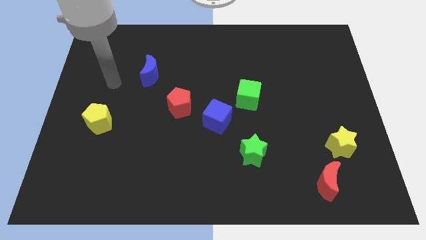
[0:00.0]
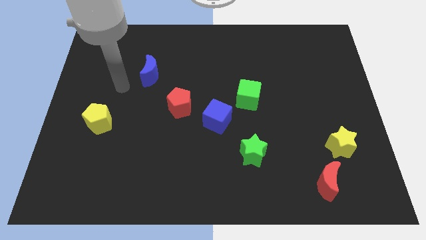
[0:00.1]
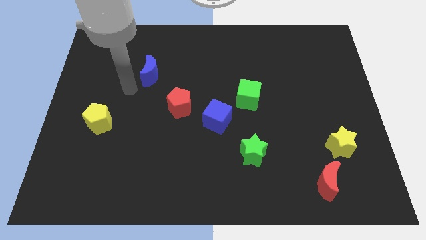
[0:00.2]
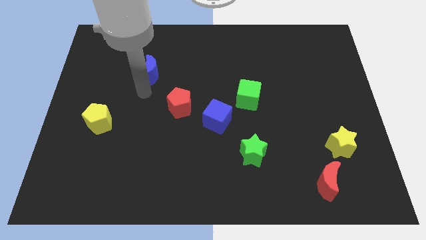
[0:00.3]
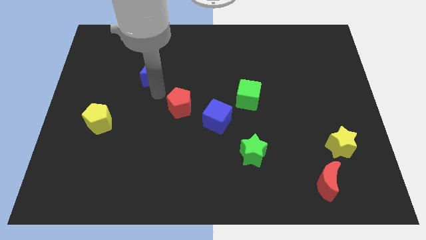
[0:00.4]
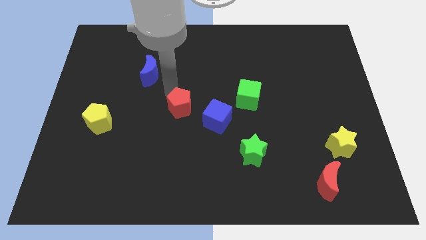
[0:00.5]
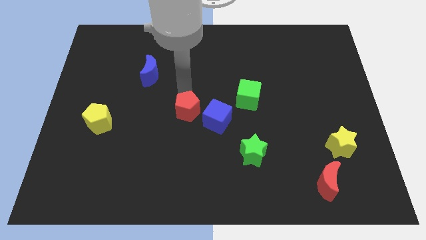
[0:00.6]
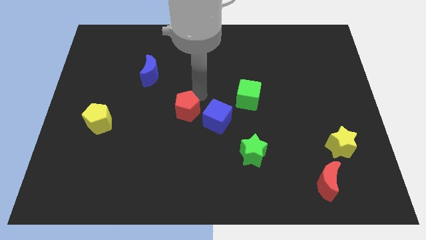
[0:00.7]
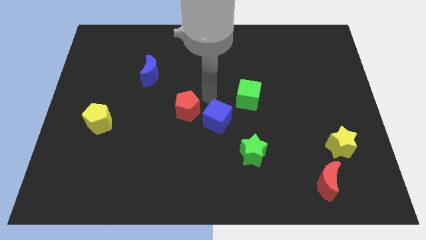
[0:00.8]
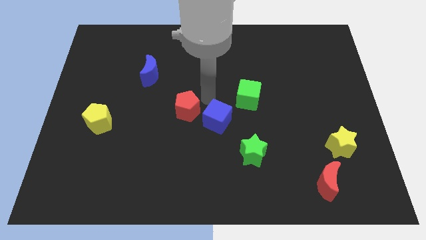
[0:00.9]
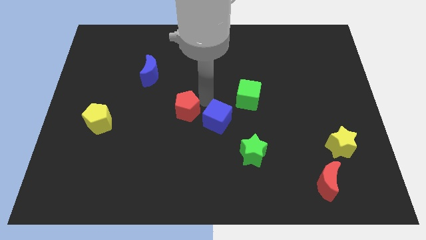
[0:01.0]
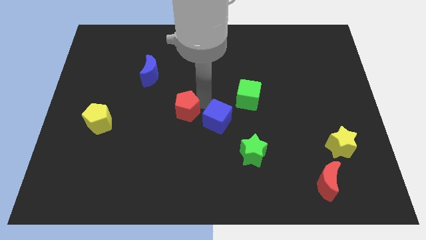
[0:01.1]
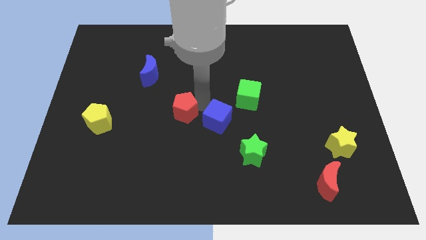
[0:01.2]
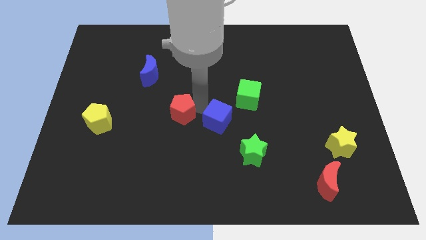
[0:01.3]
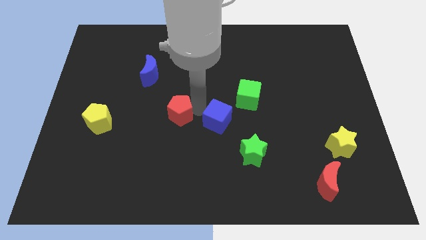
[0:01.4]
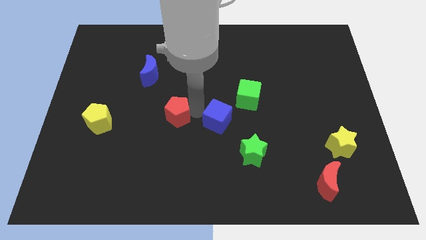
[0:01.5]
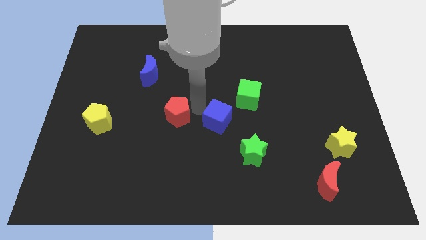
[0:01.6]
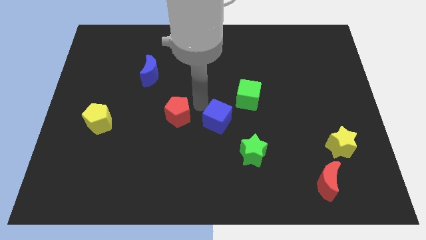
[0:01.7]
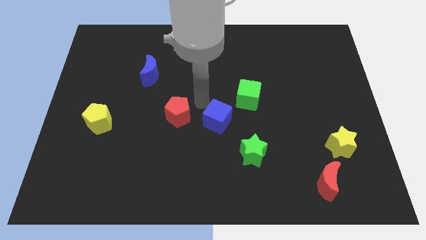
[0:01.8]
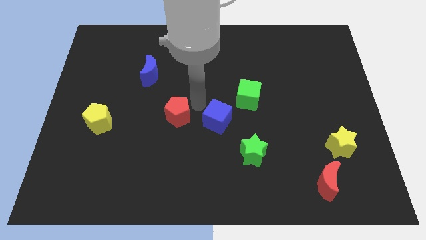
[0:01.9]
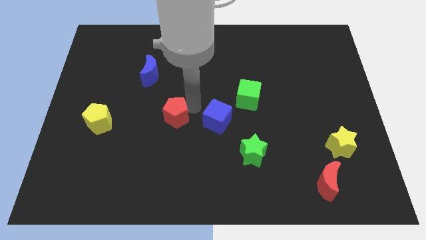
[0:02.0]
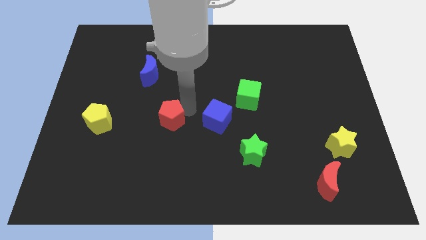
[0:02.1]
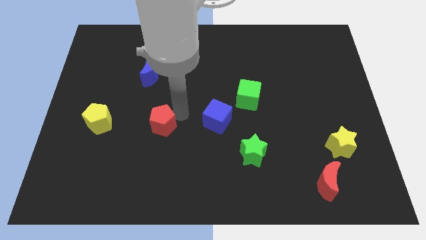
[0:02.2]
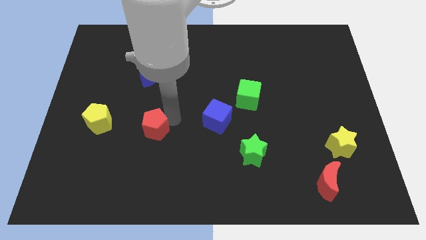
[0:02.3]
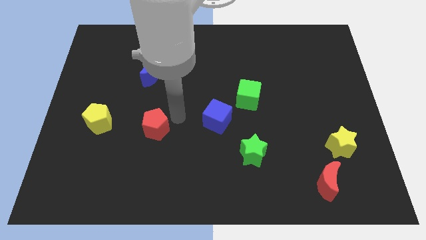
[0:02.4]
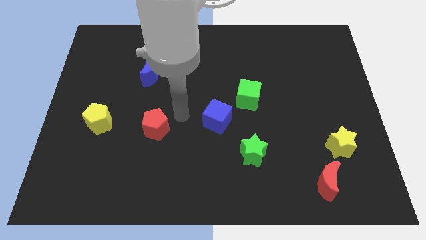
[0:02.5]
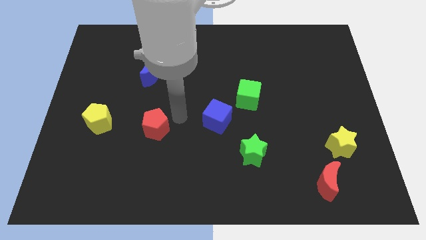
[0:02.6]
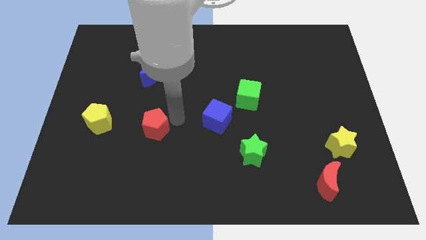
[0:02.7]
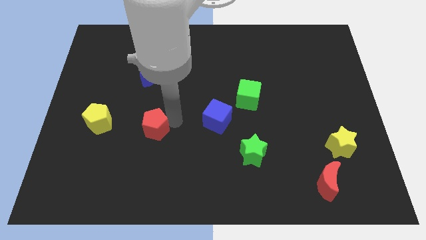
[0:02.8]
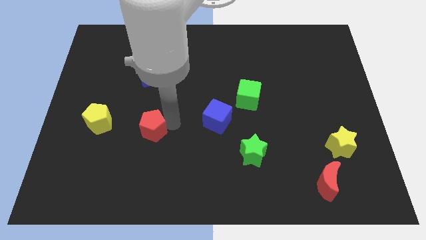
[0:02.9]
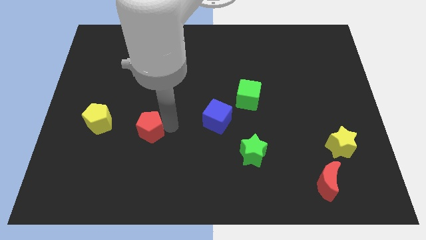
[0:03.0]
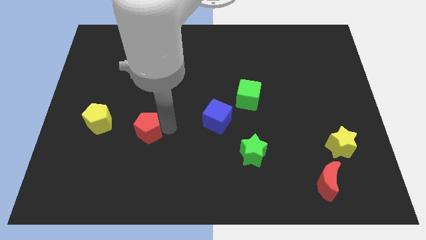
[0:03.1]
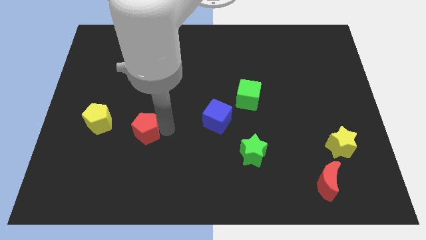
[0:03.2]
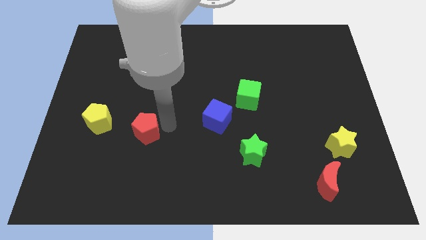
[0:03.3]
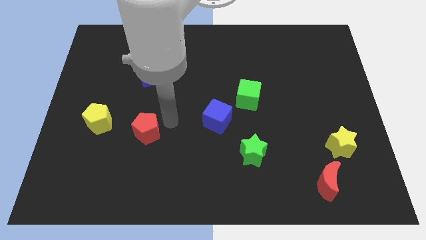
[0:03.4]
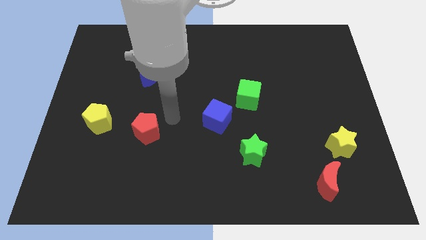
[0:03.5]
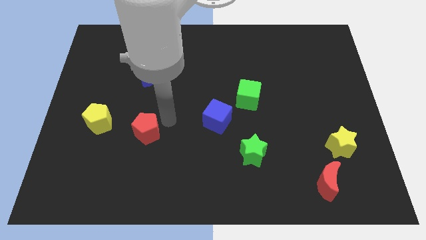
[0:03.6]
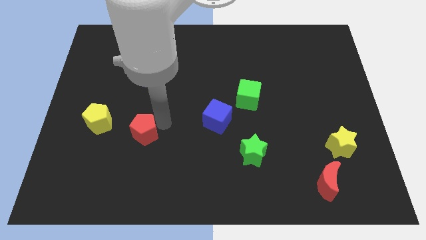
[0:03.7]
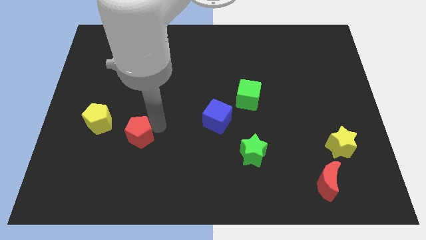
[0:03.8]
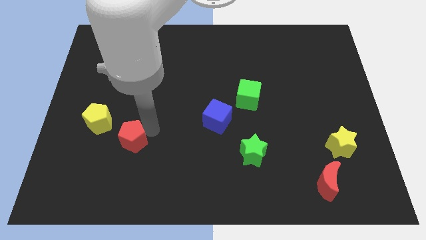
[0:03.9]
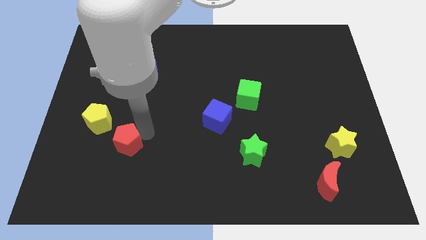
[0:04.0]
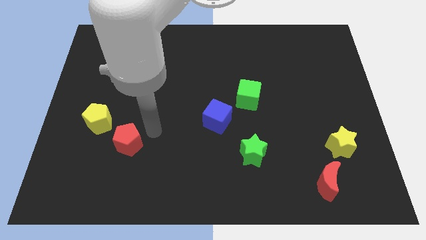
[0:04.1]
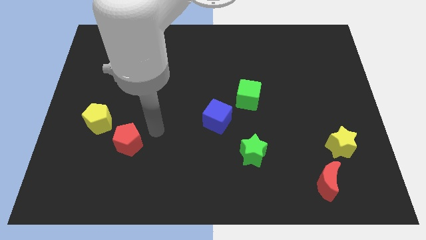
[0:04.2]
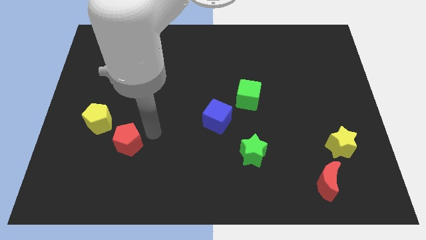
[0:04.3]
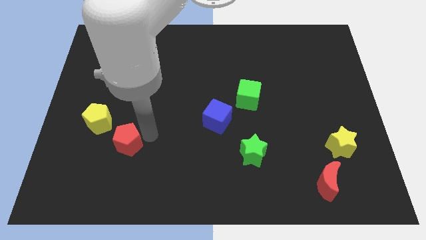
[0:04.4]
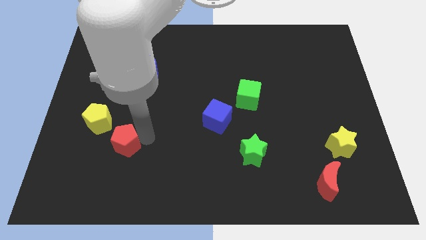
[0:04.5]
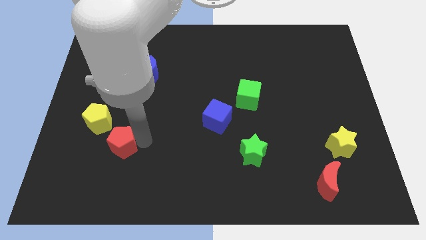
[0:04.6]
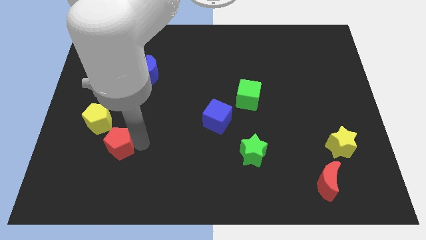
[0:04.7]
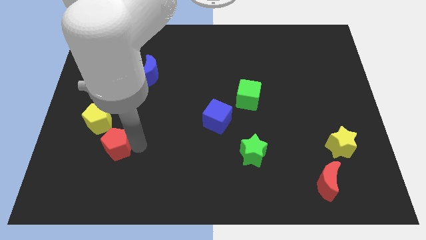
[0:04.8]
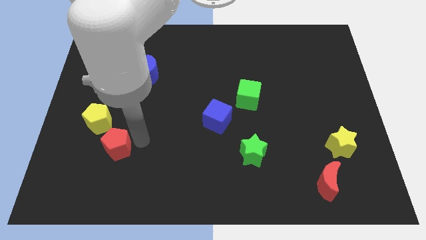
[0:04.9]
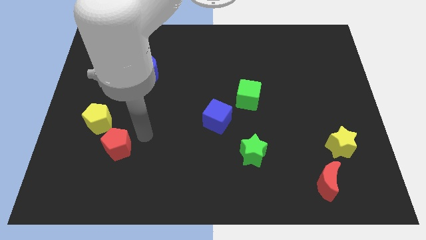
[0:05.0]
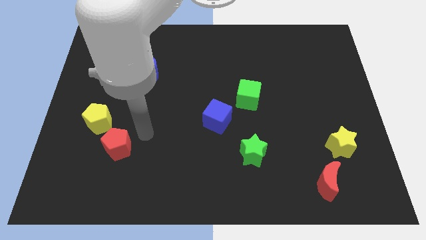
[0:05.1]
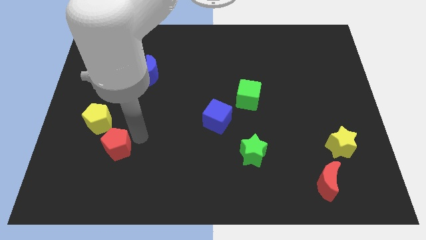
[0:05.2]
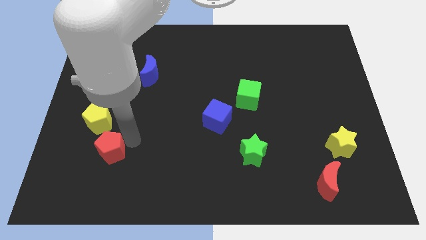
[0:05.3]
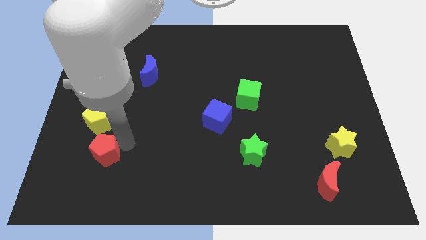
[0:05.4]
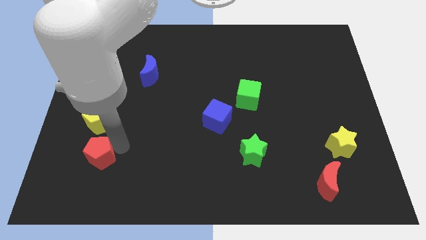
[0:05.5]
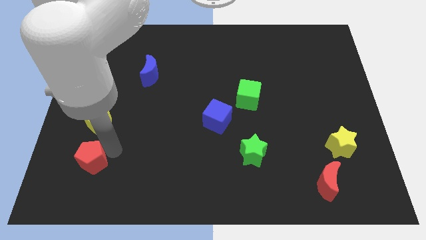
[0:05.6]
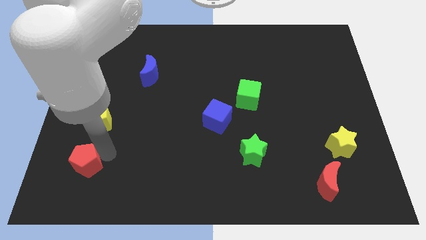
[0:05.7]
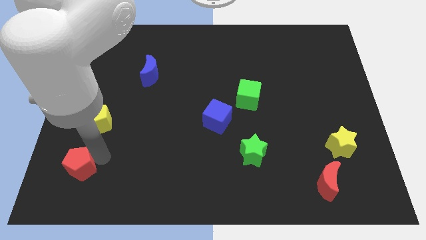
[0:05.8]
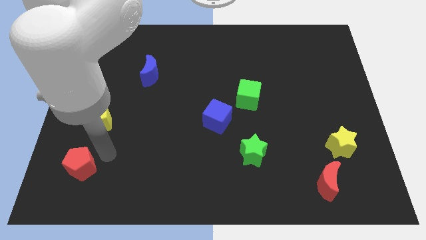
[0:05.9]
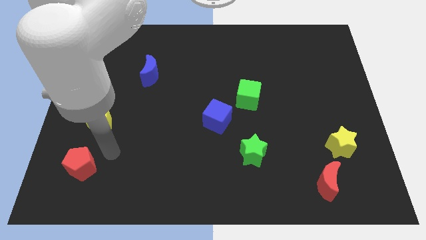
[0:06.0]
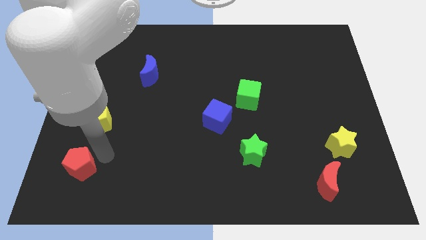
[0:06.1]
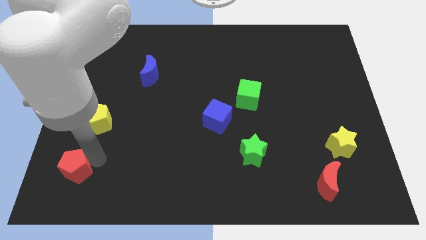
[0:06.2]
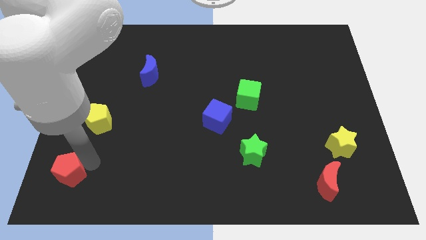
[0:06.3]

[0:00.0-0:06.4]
put the red pentagon to the lower left corner

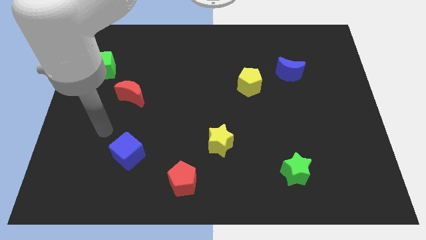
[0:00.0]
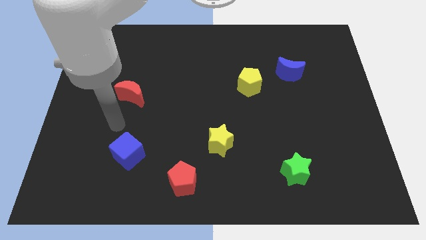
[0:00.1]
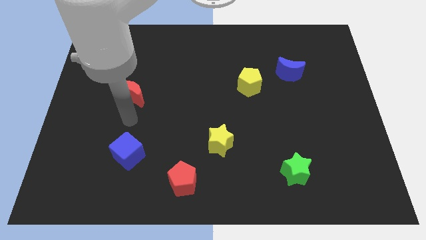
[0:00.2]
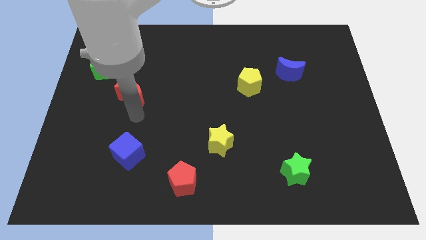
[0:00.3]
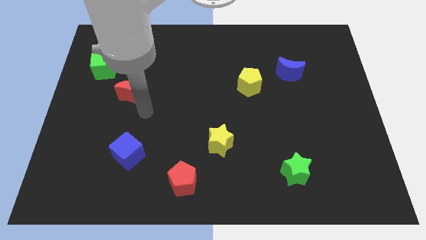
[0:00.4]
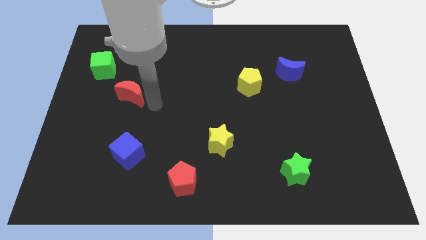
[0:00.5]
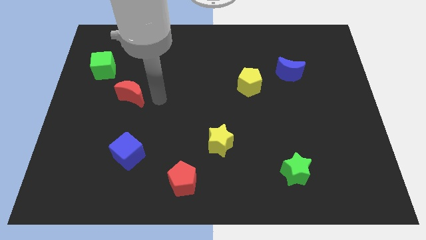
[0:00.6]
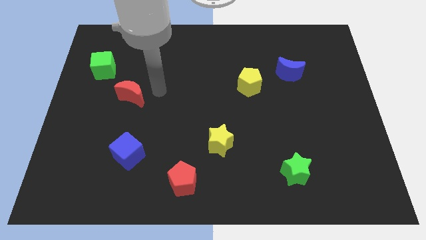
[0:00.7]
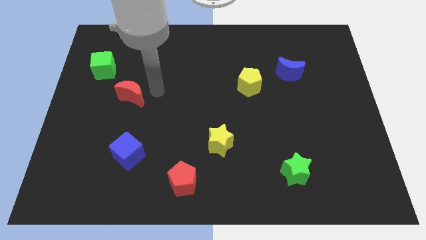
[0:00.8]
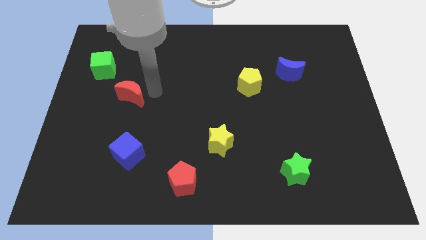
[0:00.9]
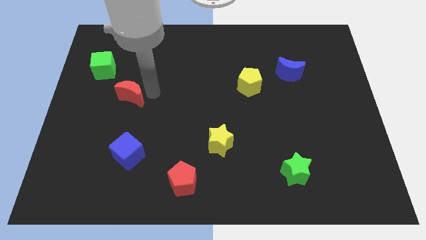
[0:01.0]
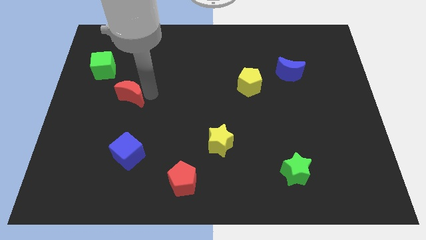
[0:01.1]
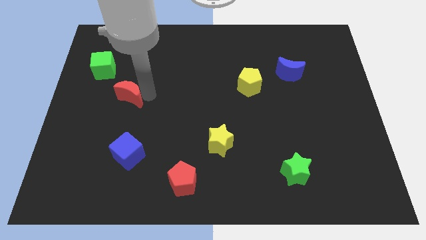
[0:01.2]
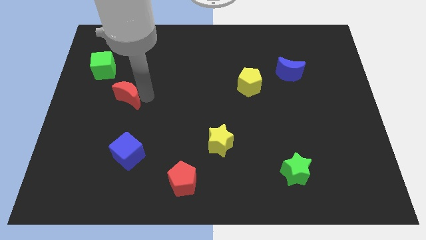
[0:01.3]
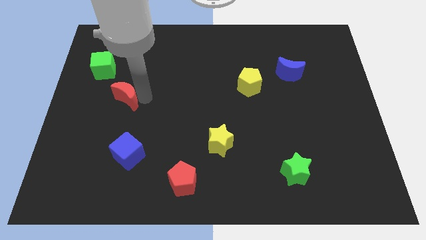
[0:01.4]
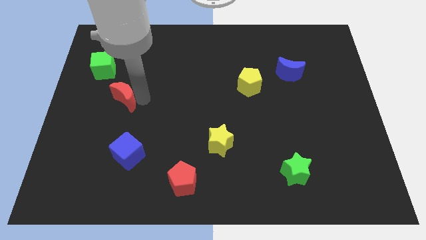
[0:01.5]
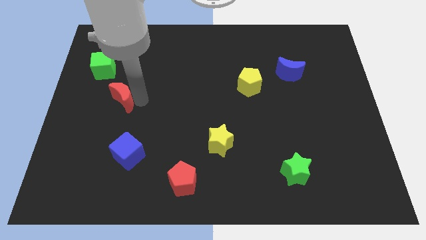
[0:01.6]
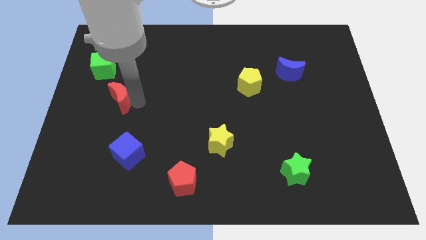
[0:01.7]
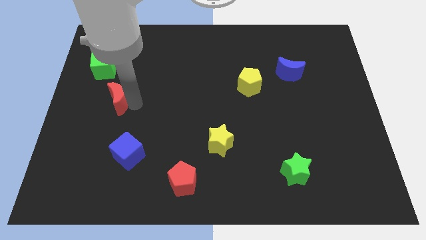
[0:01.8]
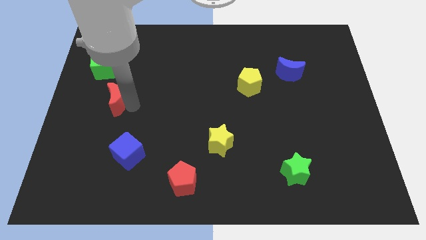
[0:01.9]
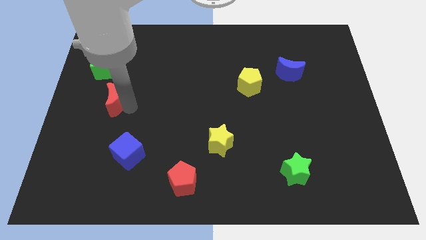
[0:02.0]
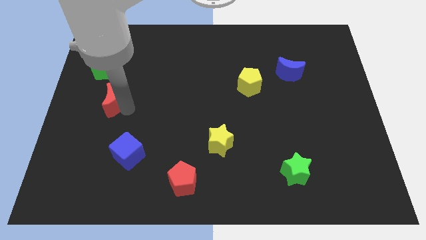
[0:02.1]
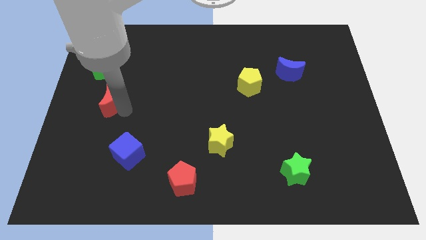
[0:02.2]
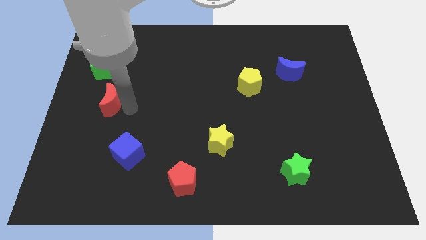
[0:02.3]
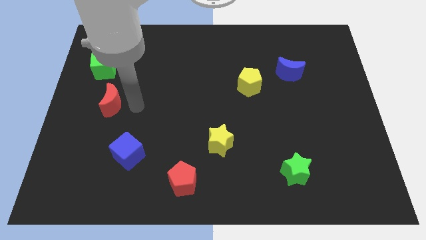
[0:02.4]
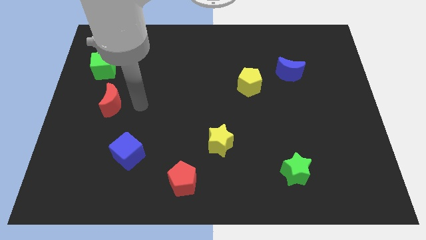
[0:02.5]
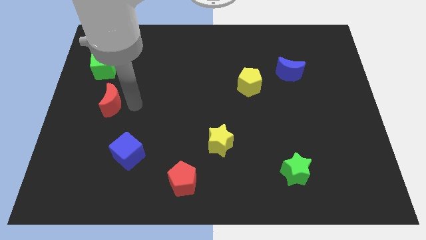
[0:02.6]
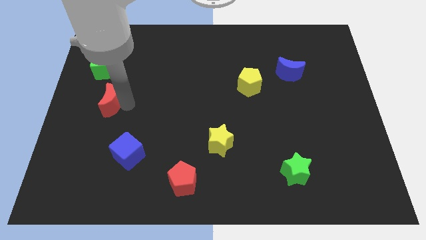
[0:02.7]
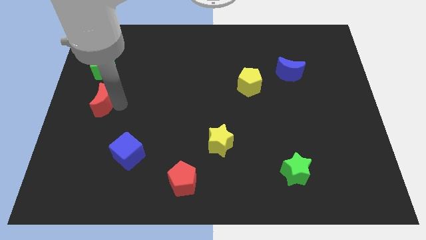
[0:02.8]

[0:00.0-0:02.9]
push the red moon to the left side
